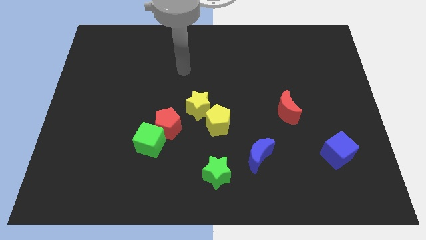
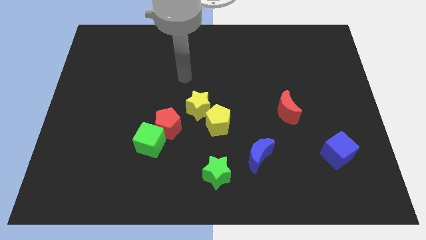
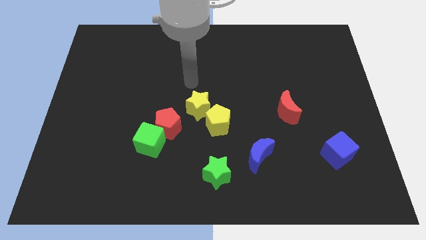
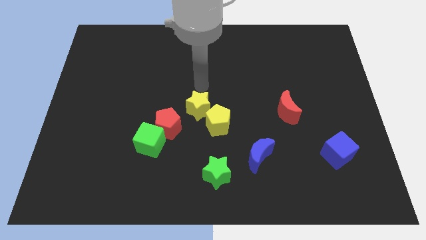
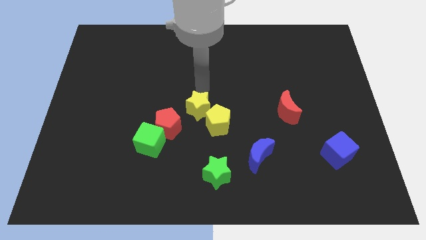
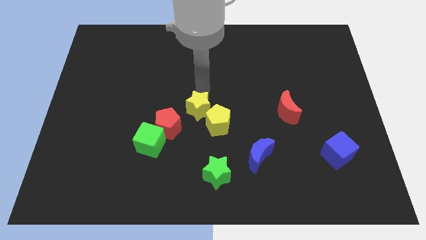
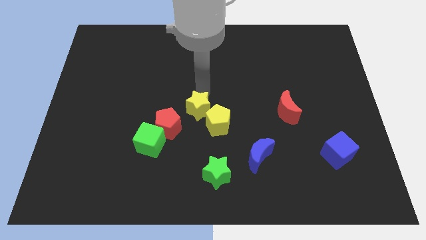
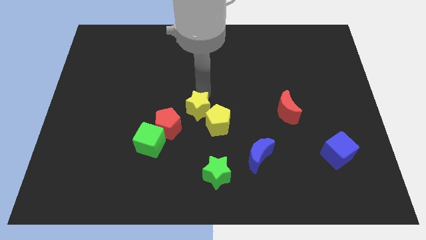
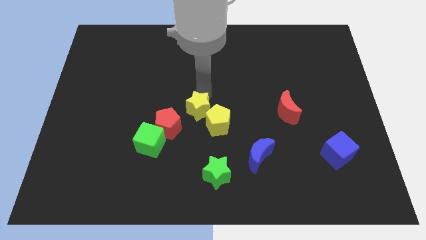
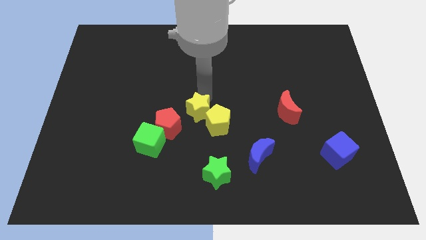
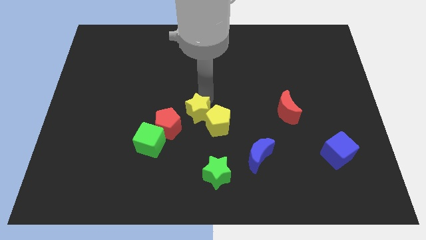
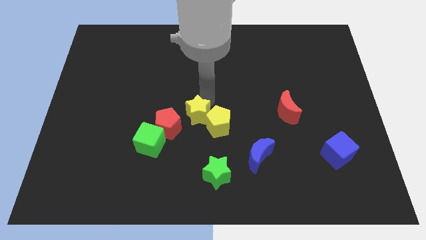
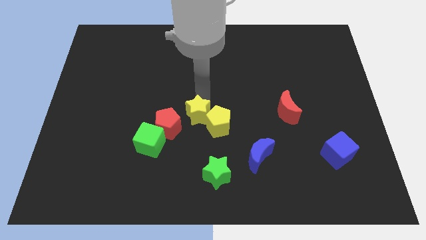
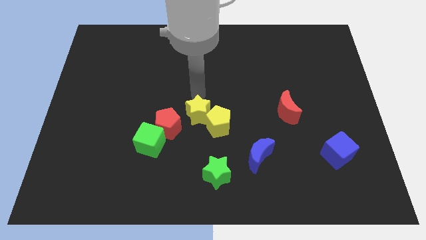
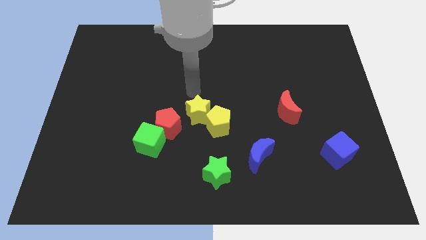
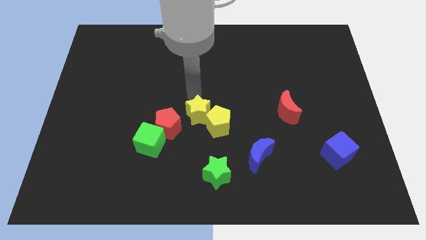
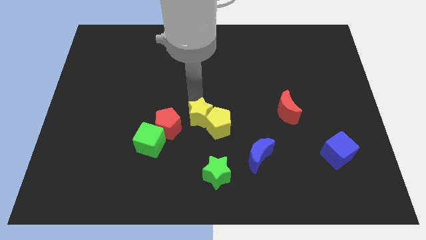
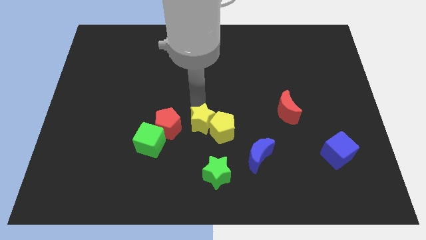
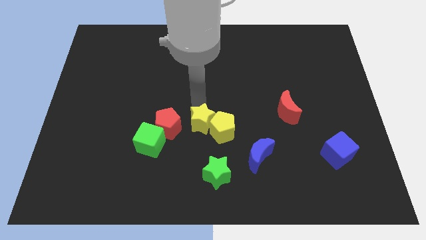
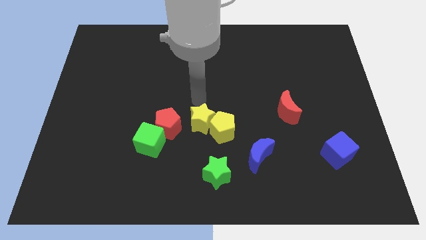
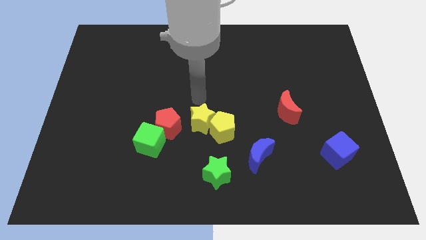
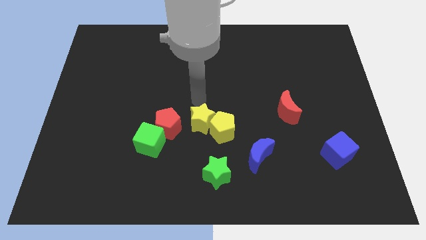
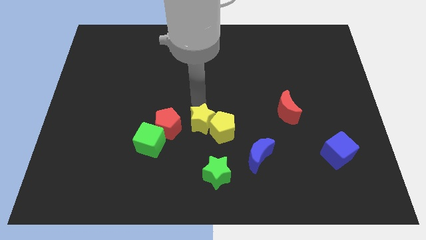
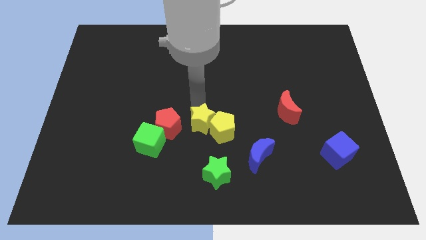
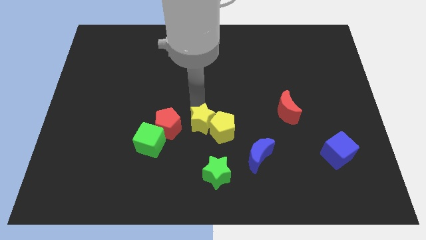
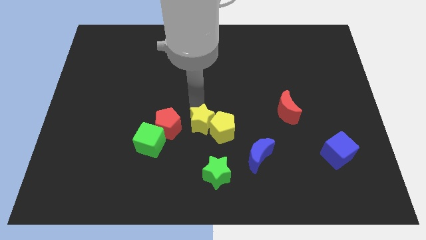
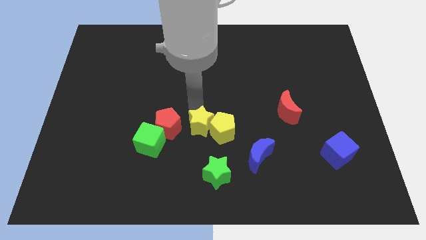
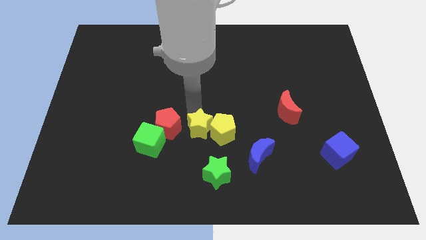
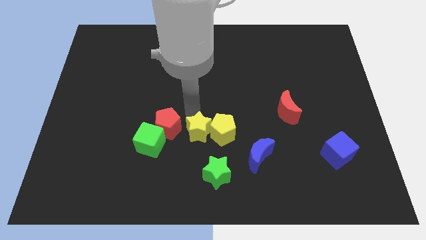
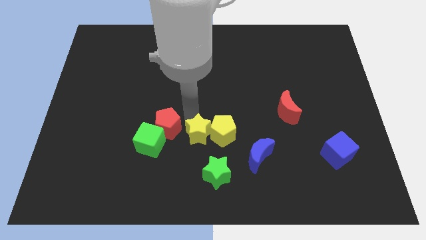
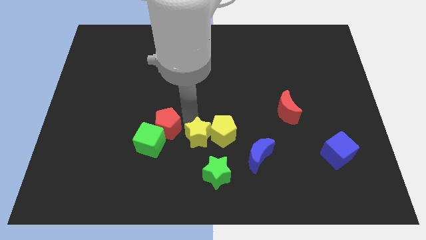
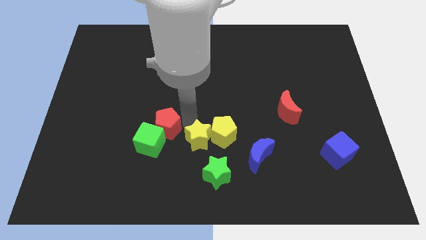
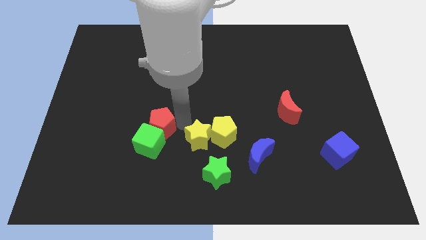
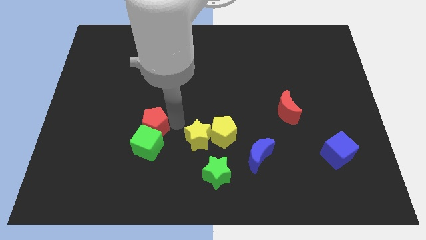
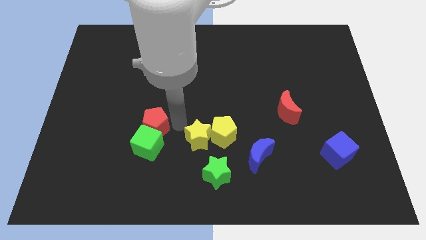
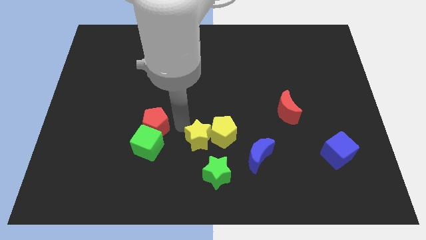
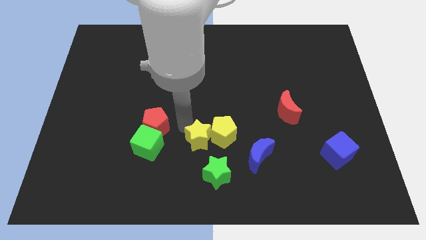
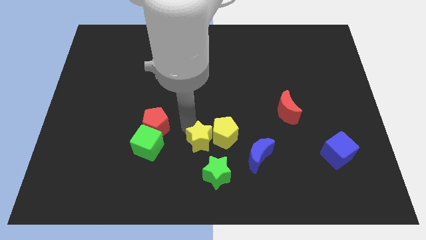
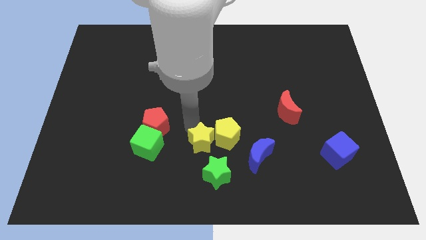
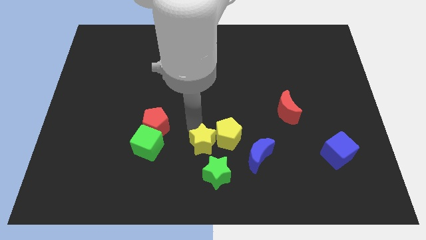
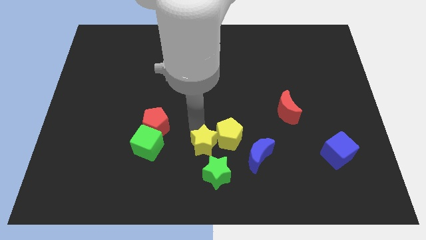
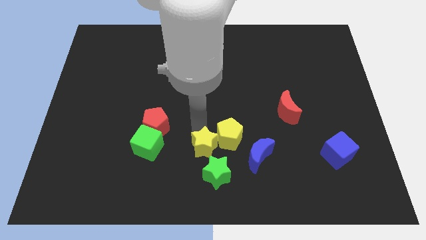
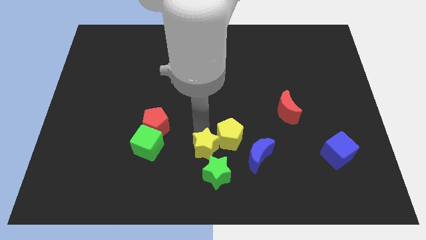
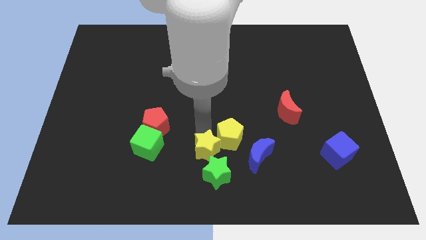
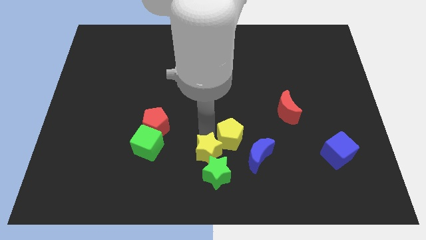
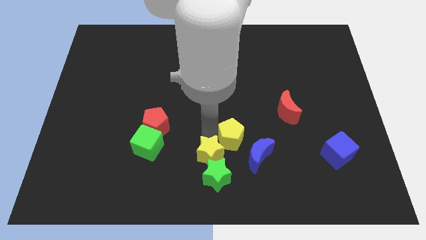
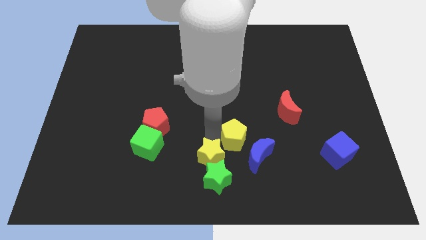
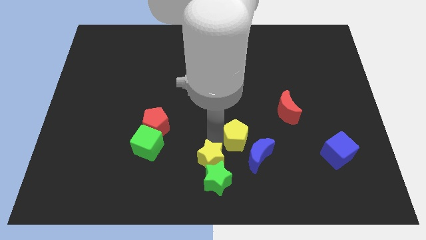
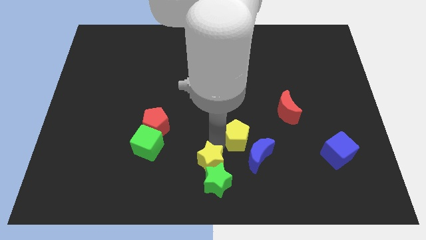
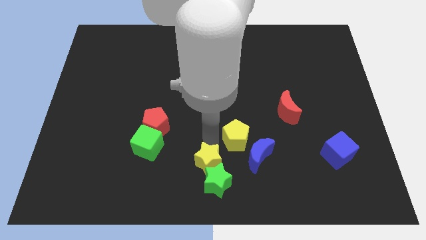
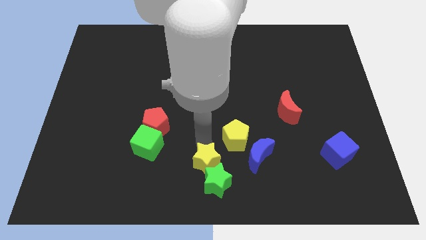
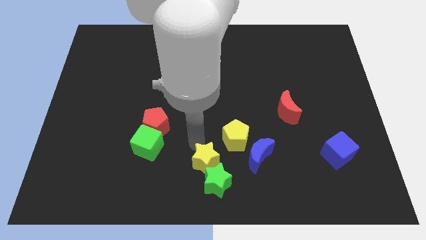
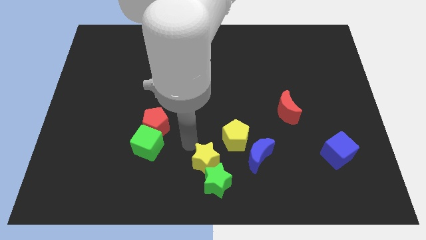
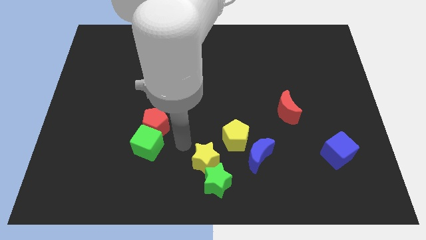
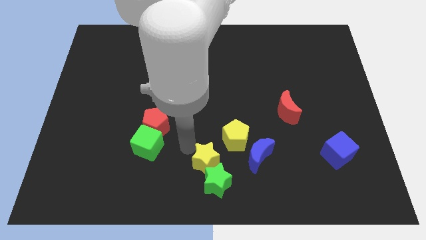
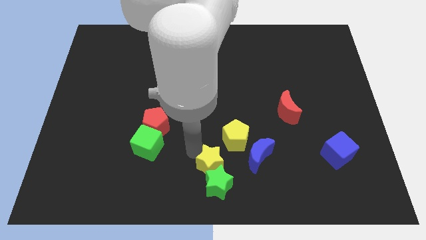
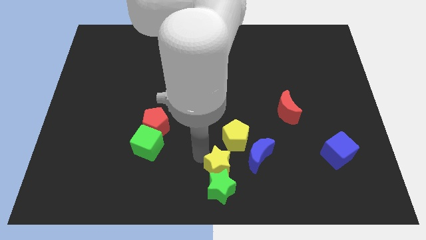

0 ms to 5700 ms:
put the yellow star diagonally down and to the left of the blue moon
